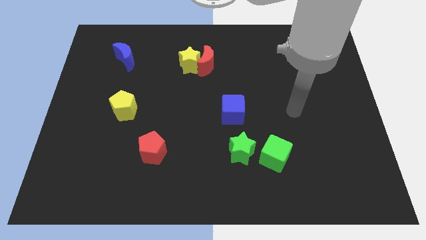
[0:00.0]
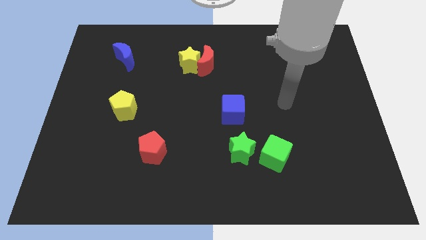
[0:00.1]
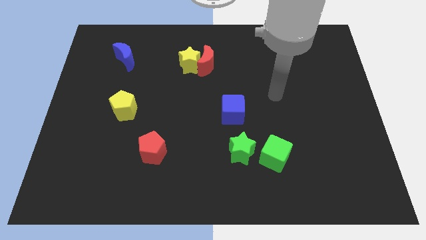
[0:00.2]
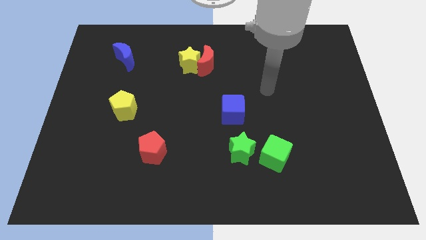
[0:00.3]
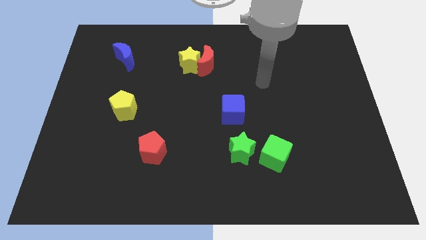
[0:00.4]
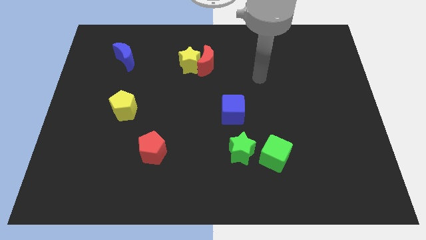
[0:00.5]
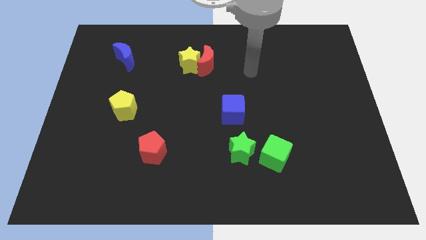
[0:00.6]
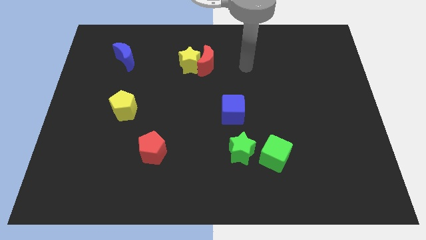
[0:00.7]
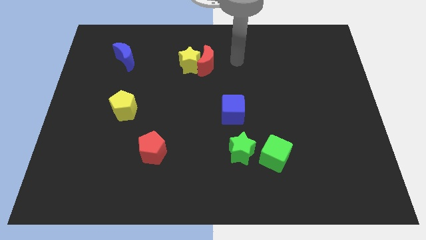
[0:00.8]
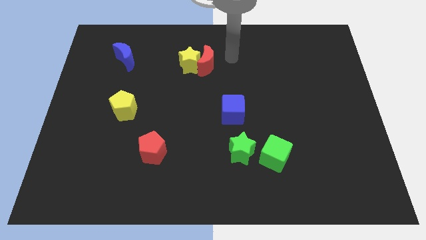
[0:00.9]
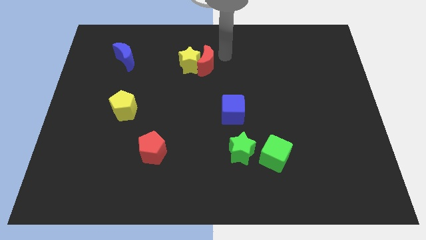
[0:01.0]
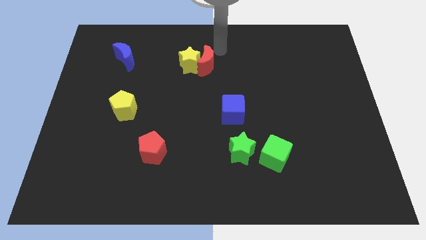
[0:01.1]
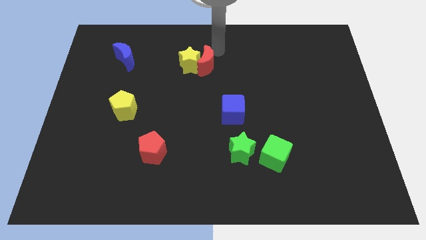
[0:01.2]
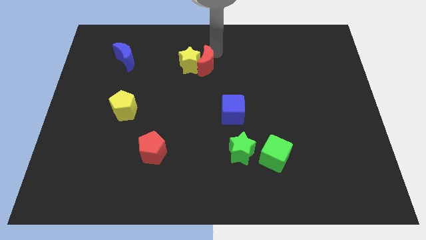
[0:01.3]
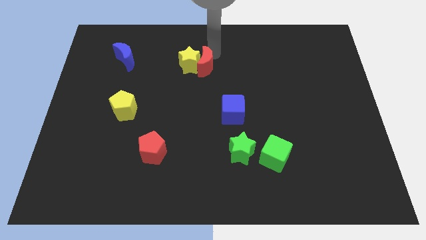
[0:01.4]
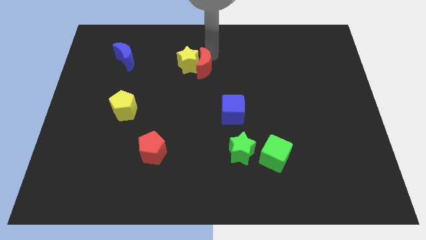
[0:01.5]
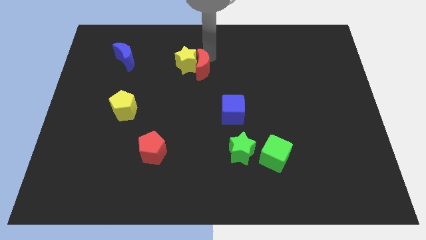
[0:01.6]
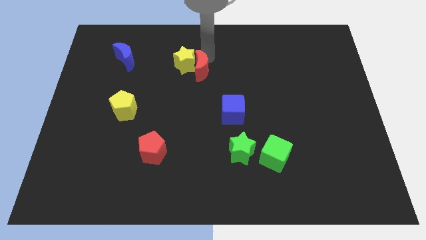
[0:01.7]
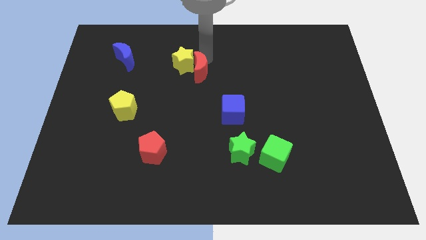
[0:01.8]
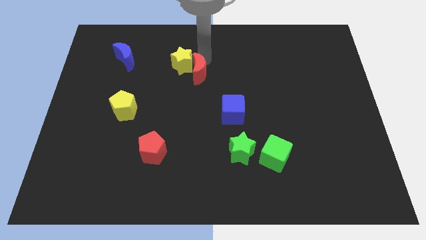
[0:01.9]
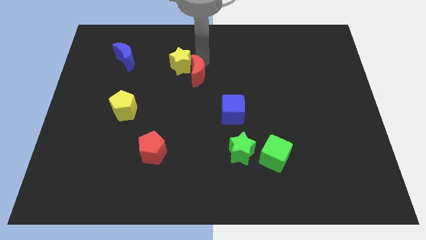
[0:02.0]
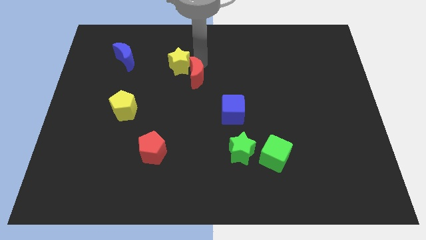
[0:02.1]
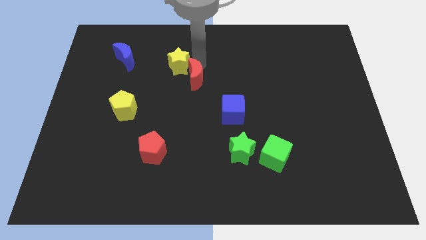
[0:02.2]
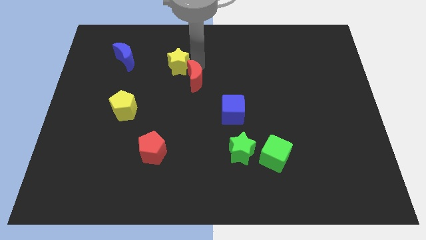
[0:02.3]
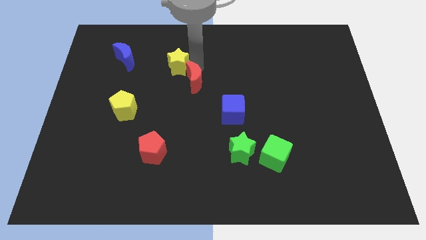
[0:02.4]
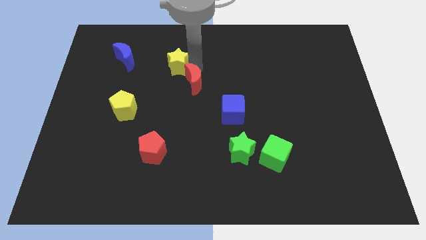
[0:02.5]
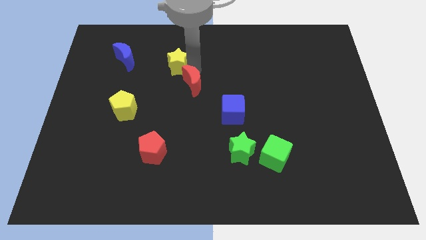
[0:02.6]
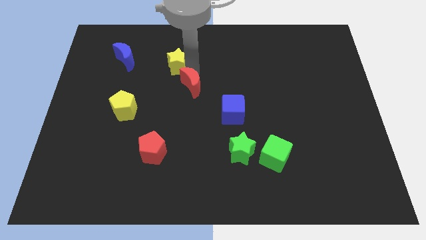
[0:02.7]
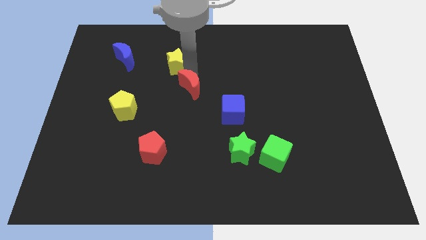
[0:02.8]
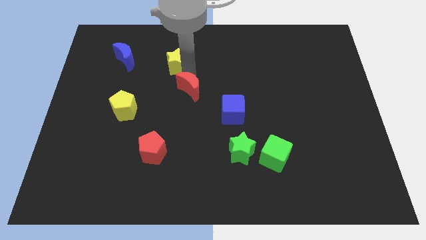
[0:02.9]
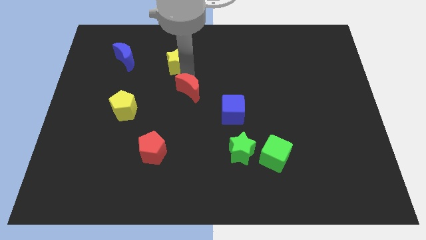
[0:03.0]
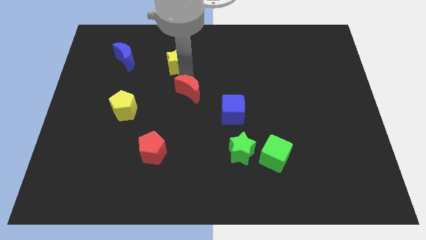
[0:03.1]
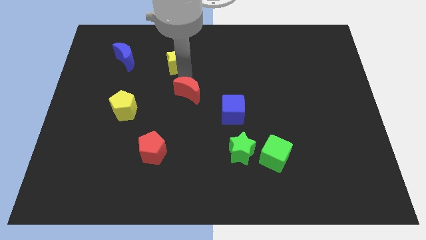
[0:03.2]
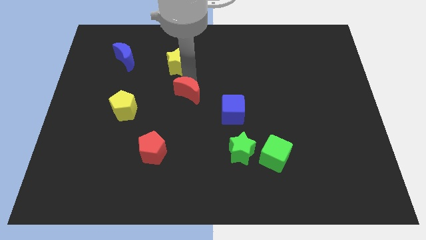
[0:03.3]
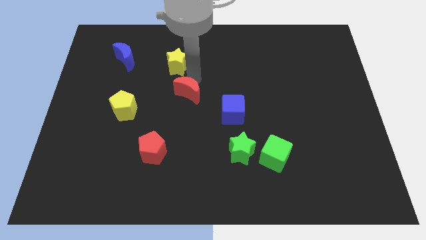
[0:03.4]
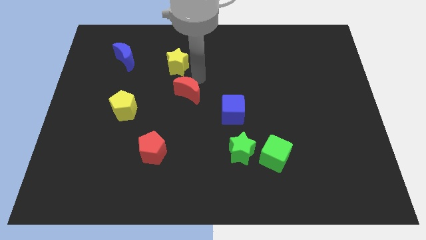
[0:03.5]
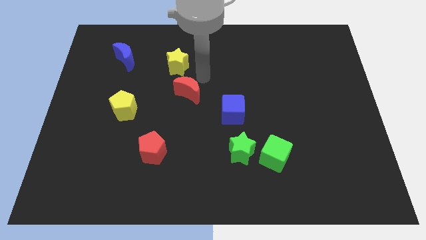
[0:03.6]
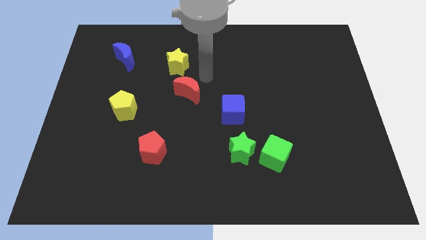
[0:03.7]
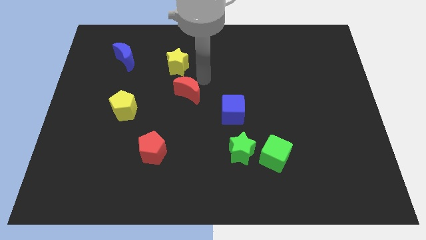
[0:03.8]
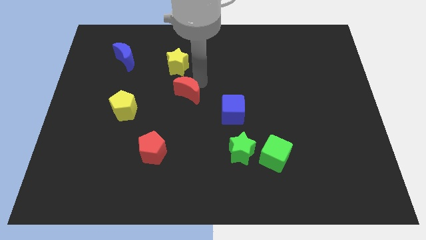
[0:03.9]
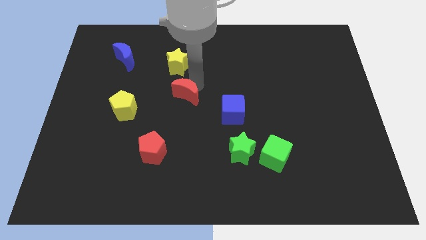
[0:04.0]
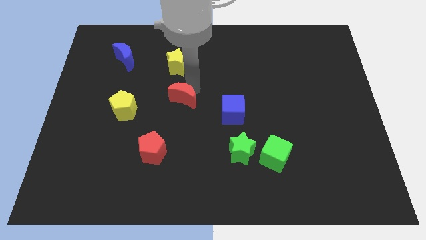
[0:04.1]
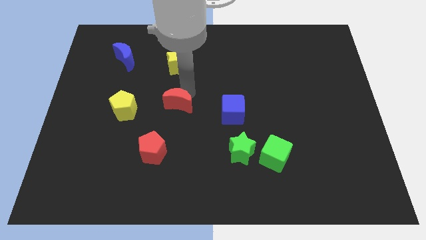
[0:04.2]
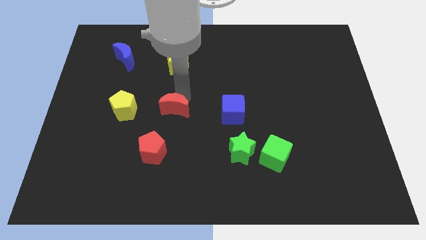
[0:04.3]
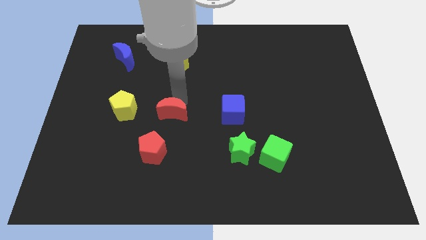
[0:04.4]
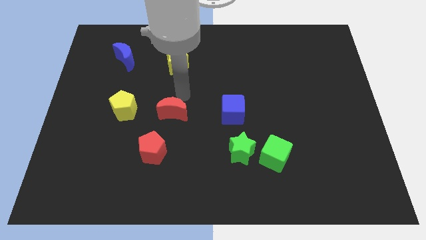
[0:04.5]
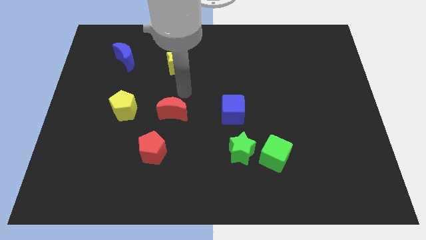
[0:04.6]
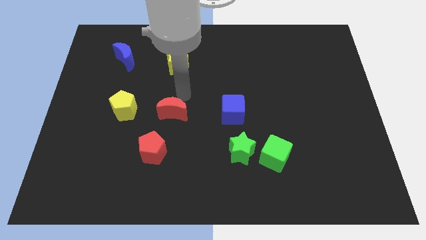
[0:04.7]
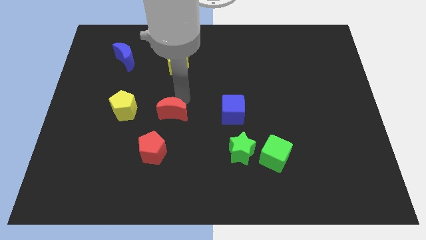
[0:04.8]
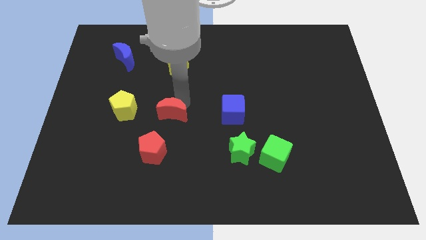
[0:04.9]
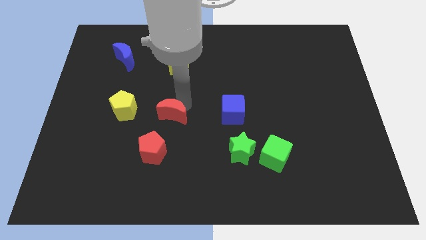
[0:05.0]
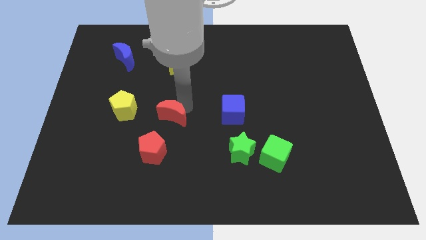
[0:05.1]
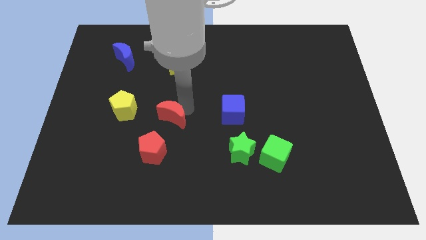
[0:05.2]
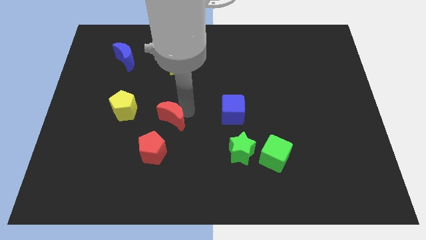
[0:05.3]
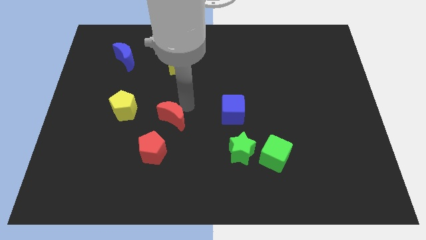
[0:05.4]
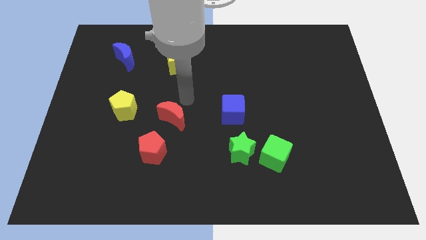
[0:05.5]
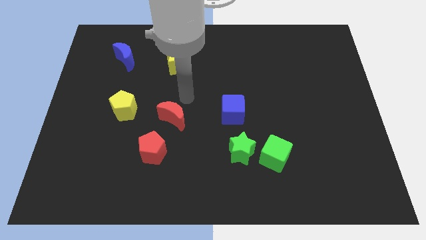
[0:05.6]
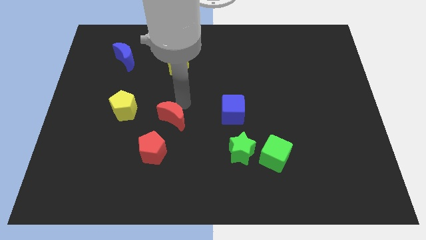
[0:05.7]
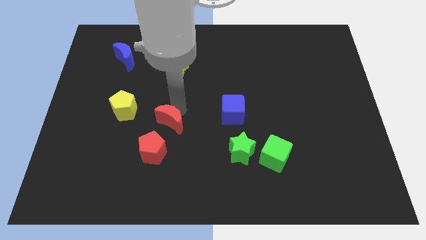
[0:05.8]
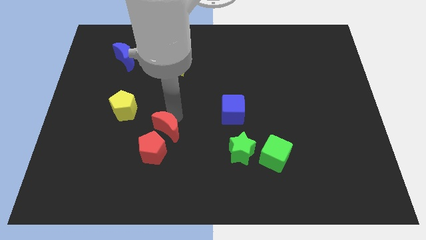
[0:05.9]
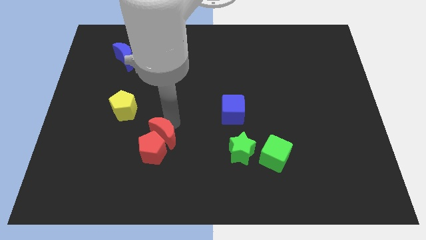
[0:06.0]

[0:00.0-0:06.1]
move the red moon towards the red pentagon

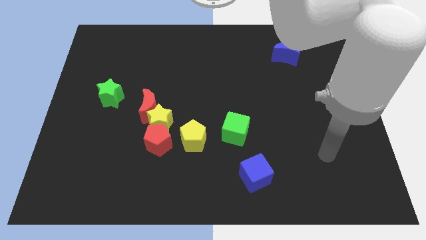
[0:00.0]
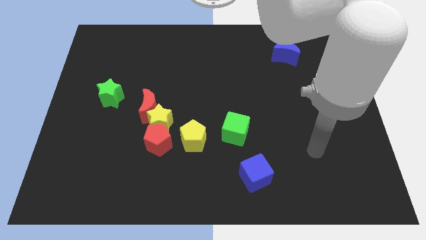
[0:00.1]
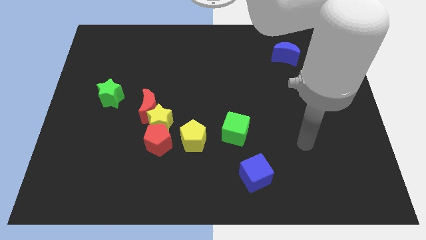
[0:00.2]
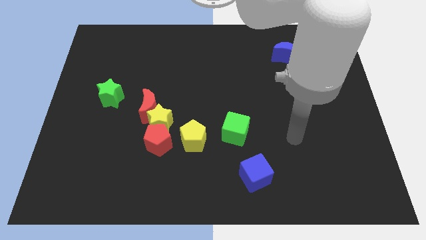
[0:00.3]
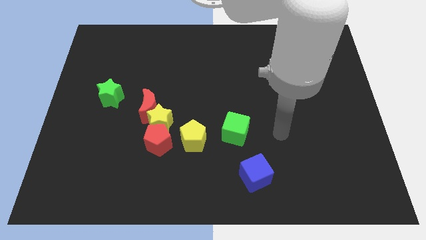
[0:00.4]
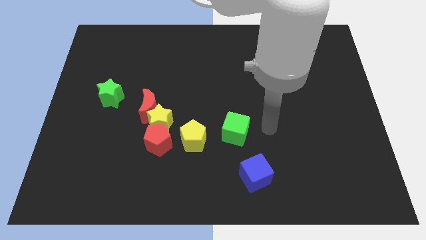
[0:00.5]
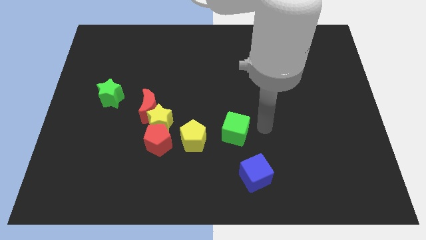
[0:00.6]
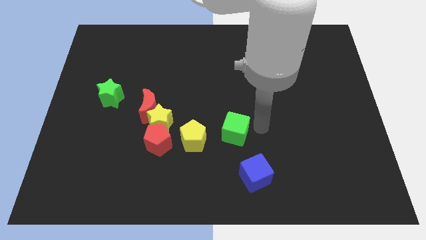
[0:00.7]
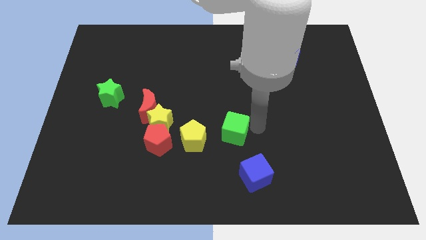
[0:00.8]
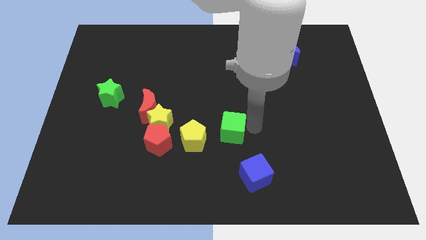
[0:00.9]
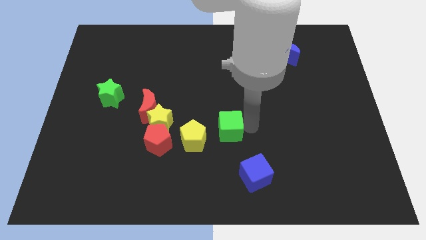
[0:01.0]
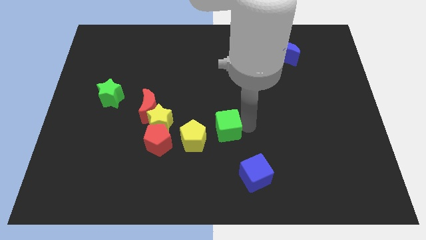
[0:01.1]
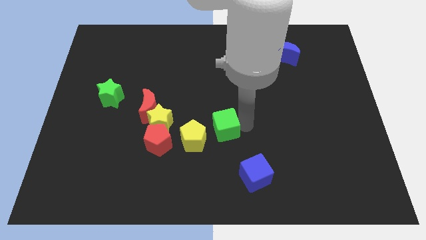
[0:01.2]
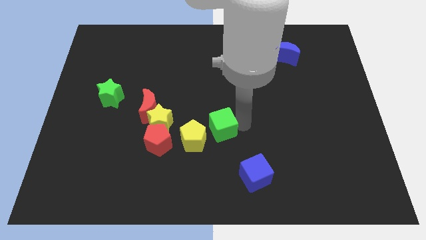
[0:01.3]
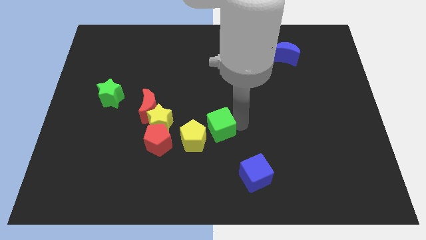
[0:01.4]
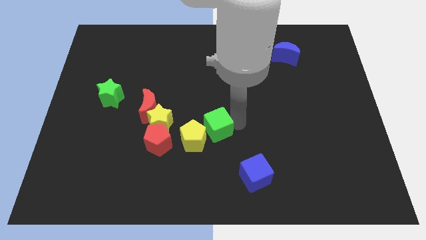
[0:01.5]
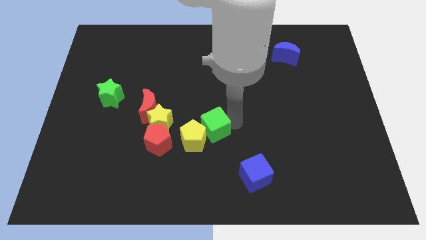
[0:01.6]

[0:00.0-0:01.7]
put the green cube to the yellow pentagon
